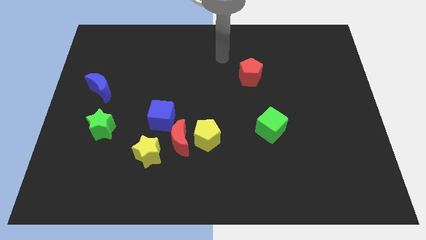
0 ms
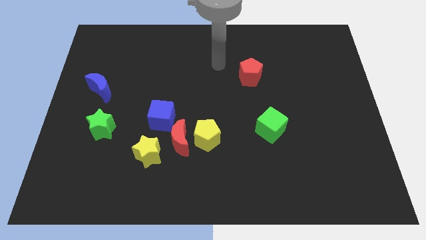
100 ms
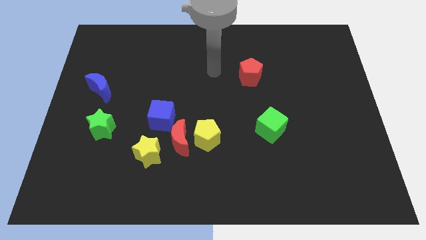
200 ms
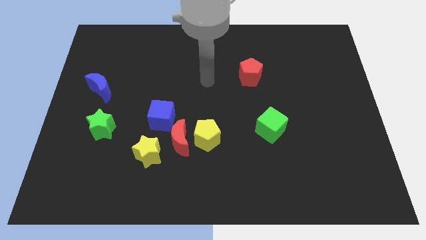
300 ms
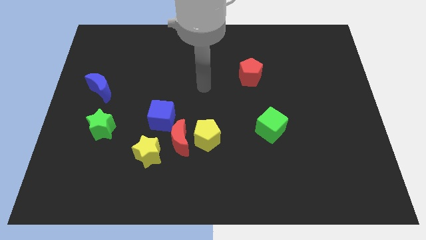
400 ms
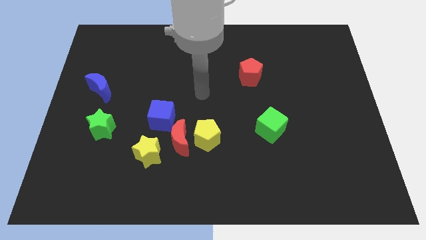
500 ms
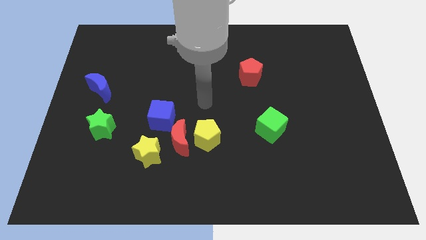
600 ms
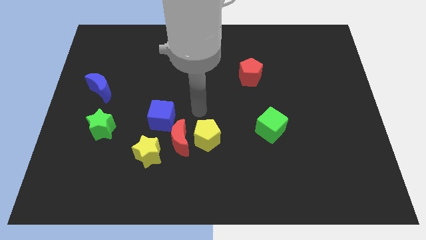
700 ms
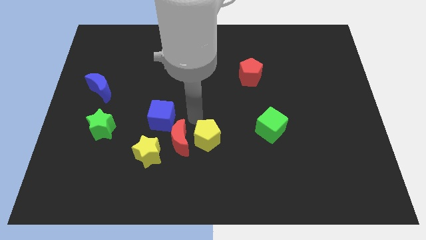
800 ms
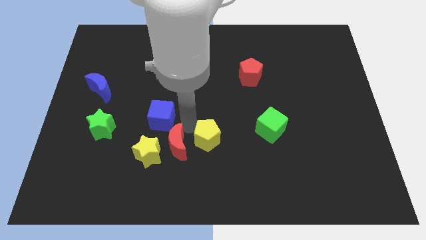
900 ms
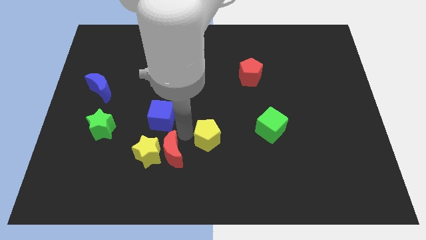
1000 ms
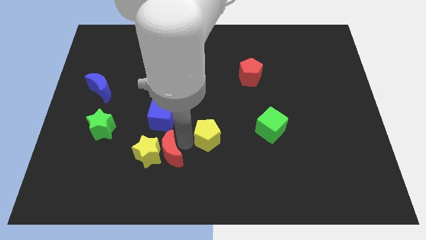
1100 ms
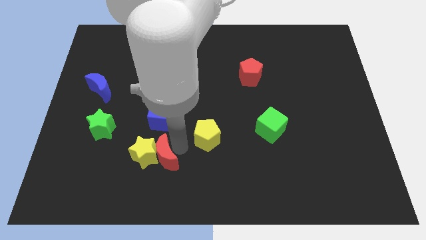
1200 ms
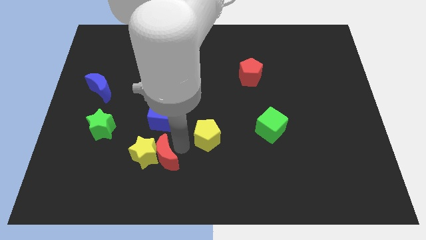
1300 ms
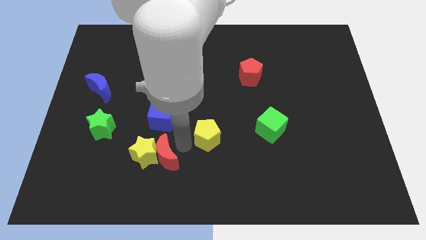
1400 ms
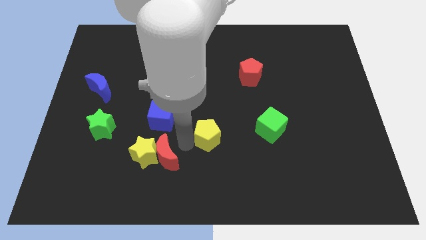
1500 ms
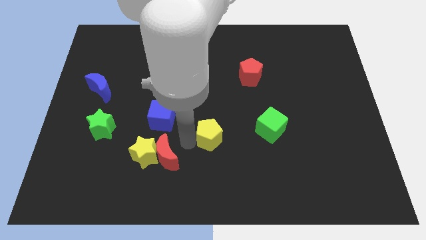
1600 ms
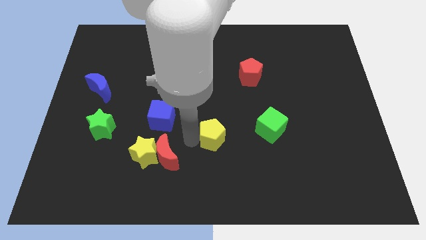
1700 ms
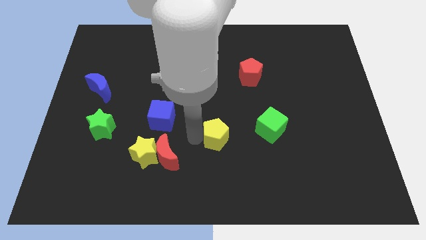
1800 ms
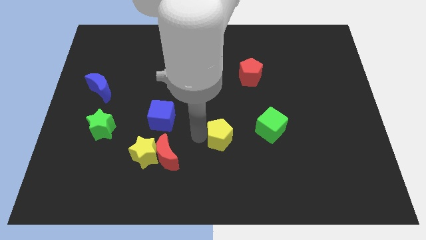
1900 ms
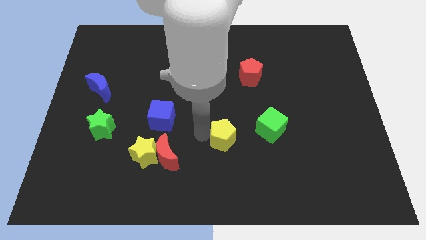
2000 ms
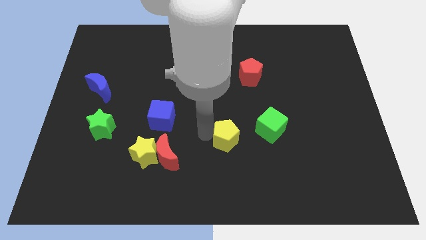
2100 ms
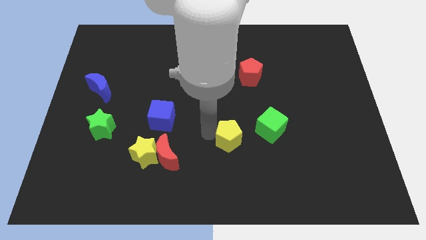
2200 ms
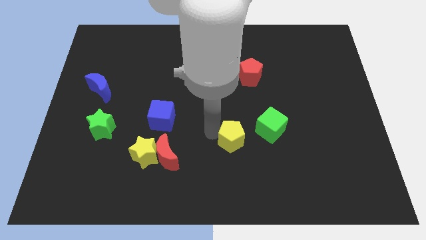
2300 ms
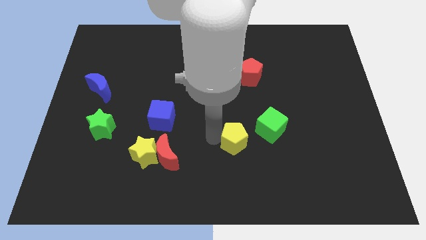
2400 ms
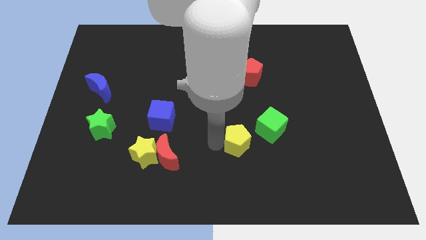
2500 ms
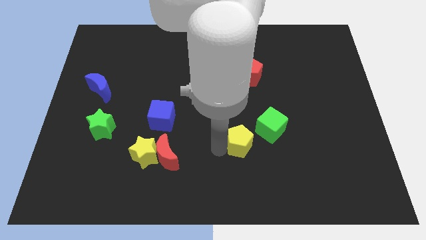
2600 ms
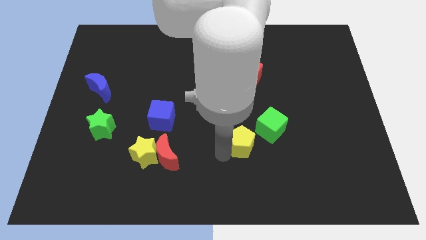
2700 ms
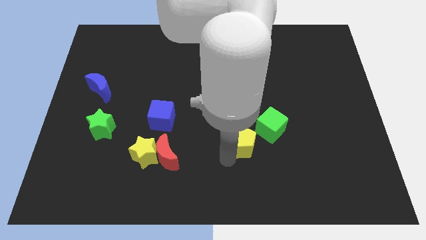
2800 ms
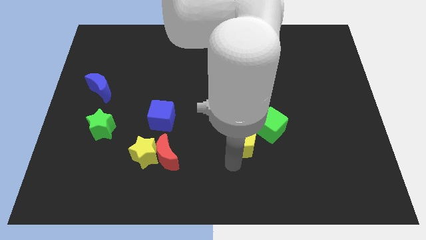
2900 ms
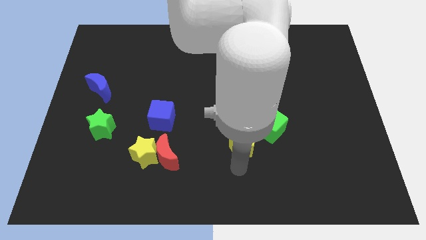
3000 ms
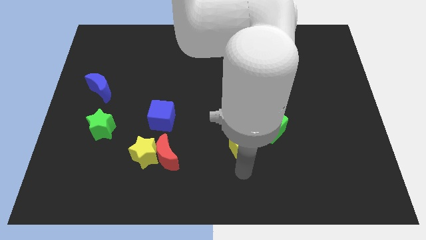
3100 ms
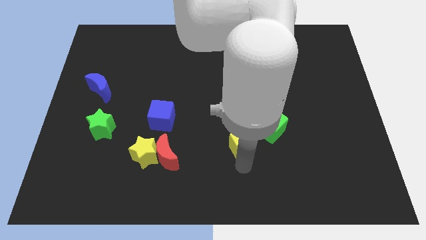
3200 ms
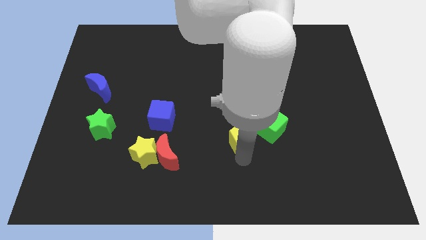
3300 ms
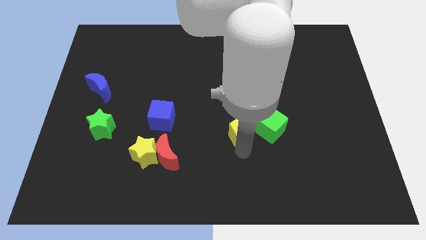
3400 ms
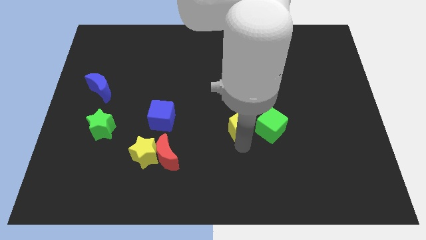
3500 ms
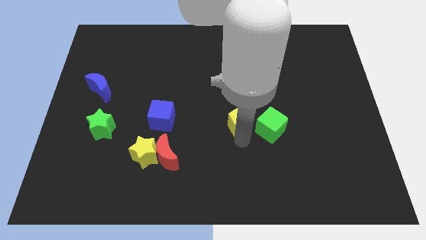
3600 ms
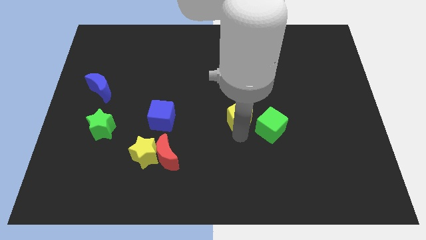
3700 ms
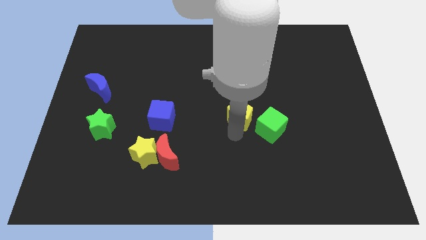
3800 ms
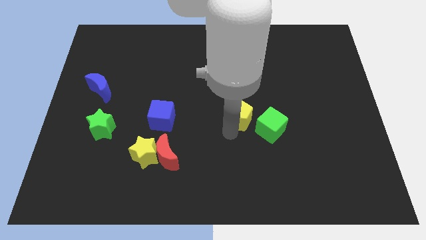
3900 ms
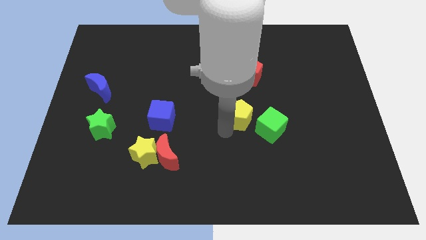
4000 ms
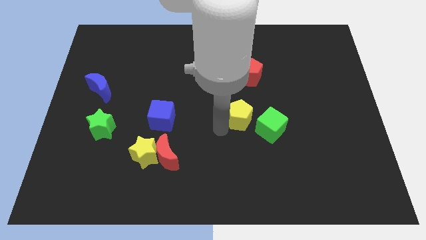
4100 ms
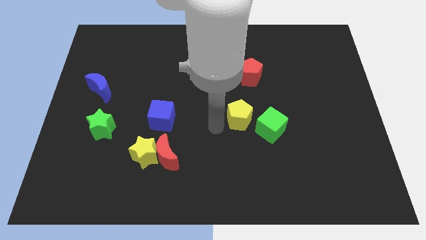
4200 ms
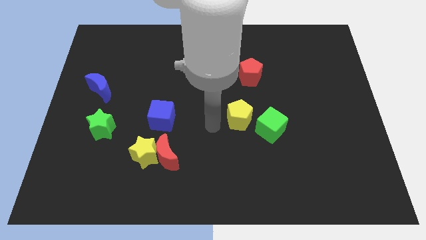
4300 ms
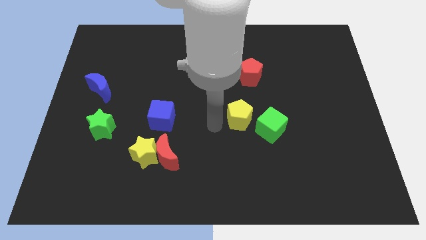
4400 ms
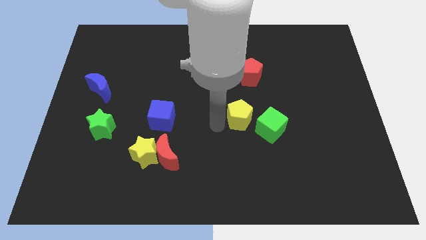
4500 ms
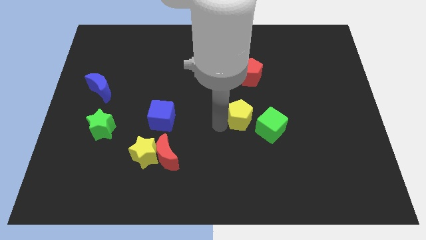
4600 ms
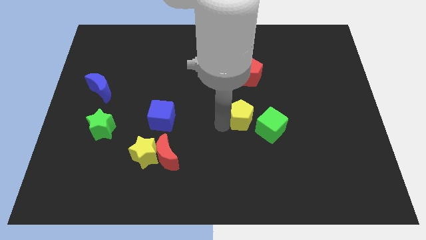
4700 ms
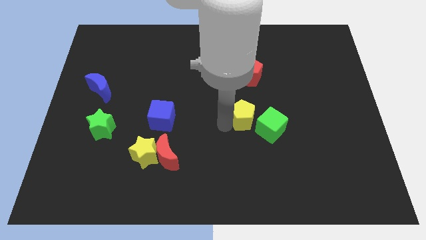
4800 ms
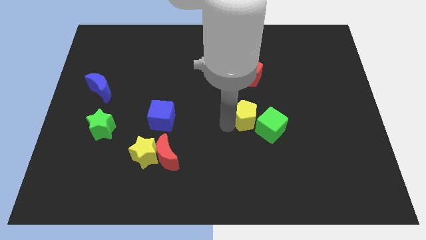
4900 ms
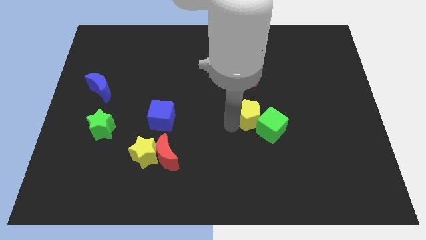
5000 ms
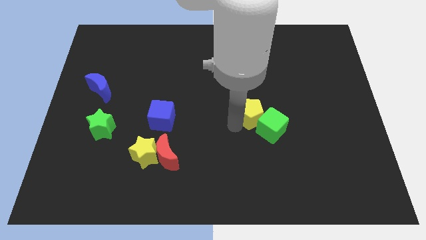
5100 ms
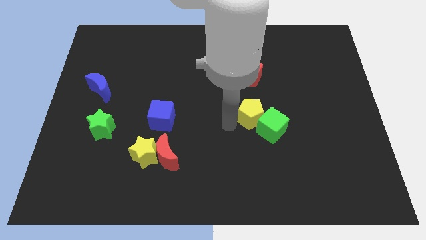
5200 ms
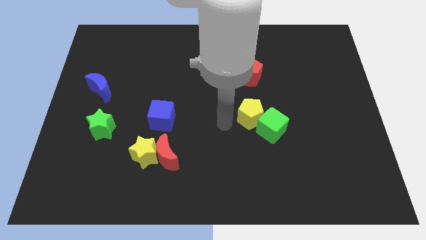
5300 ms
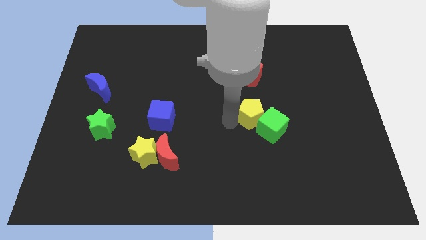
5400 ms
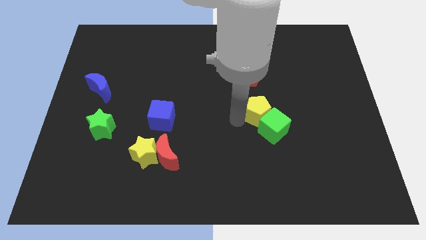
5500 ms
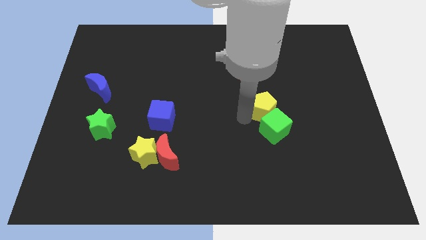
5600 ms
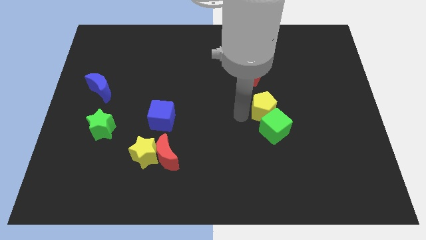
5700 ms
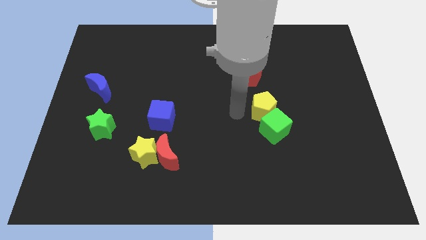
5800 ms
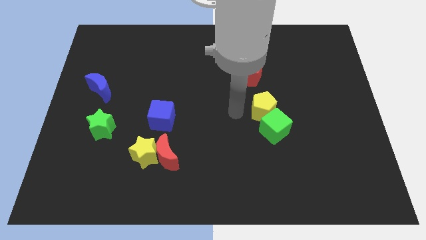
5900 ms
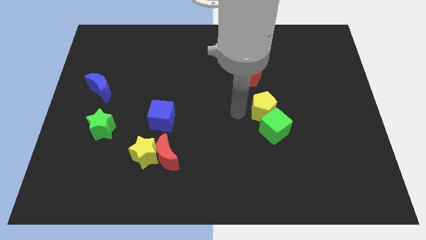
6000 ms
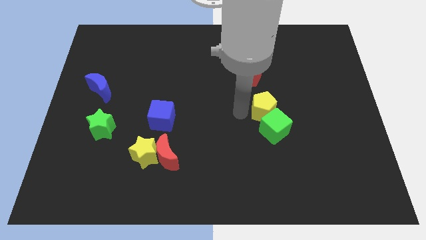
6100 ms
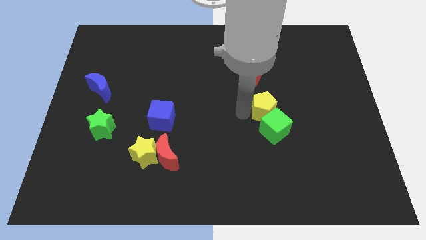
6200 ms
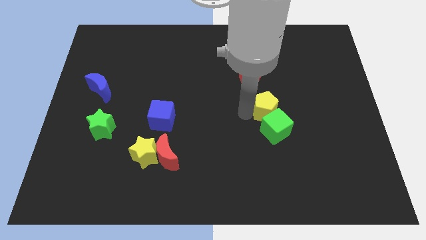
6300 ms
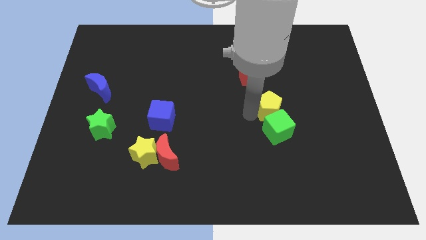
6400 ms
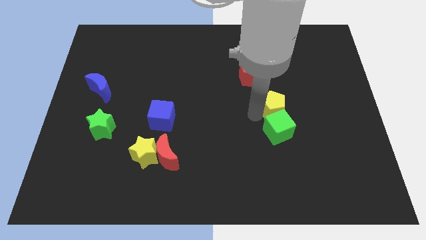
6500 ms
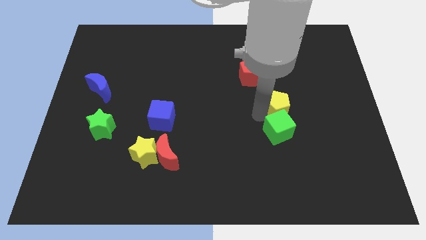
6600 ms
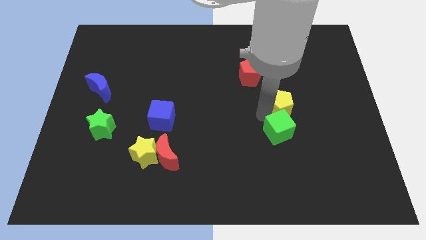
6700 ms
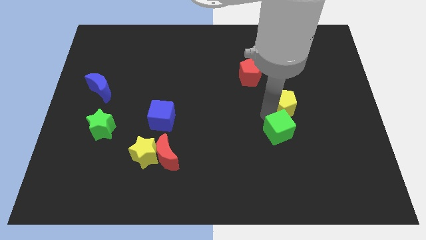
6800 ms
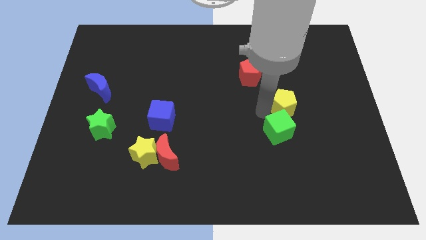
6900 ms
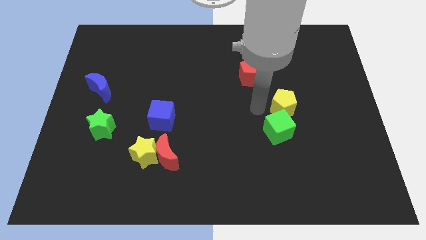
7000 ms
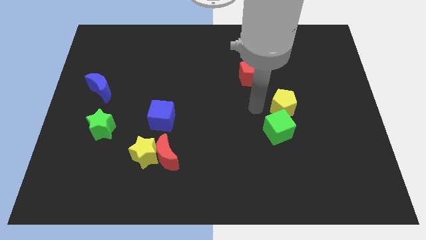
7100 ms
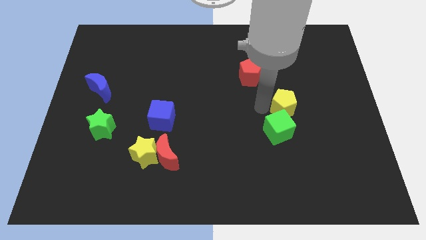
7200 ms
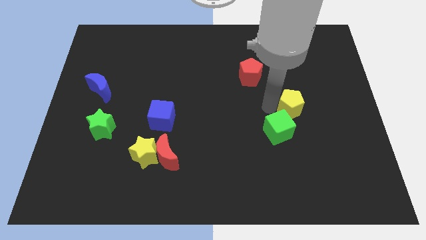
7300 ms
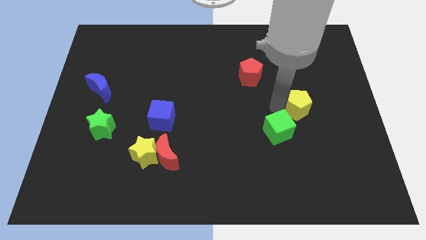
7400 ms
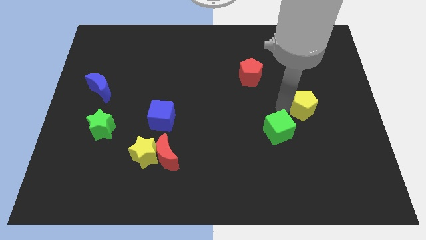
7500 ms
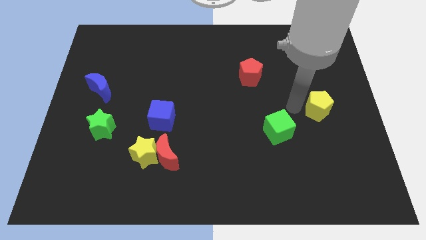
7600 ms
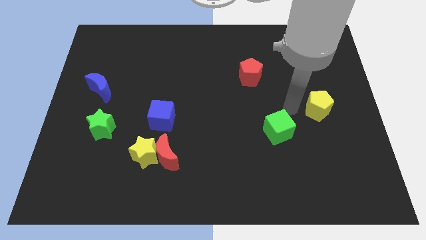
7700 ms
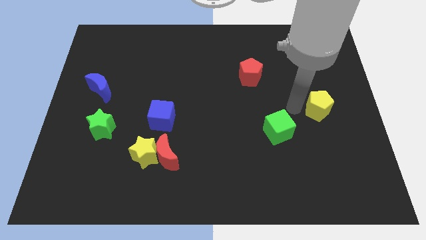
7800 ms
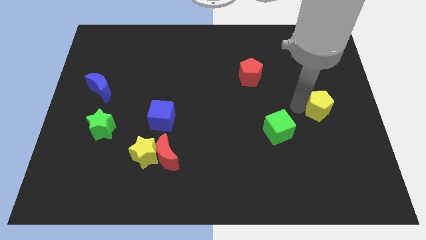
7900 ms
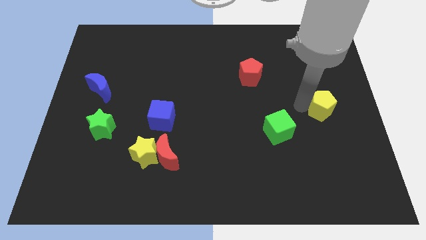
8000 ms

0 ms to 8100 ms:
move the yellow pentagon to the center right
